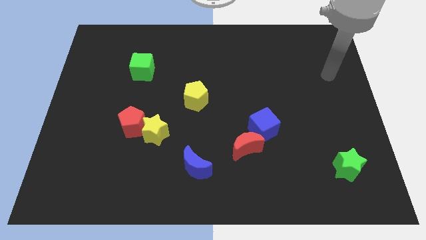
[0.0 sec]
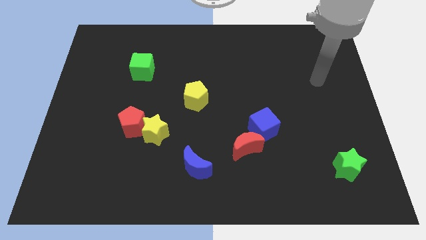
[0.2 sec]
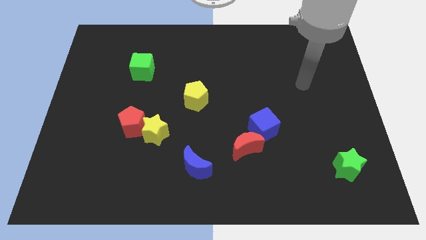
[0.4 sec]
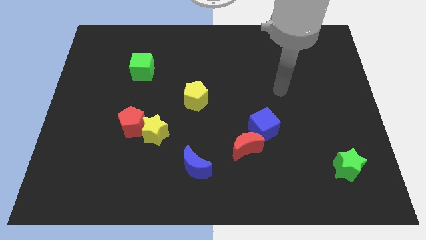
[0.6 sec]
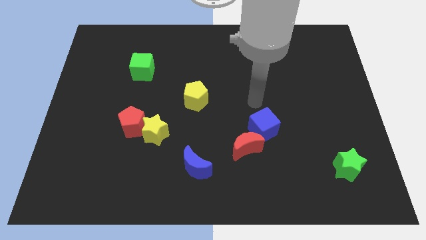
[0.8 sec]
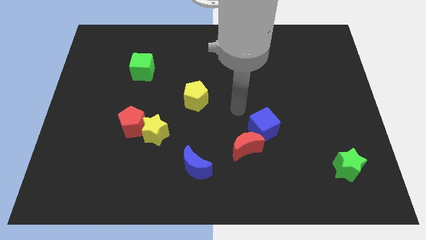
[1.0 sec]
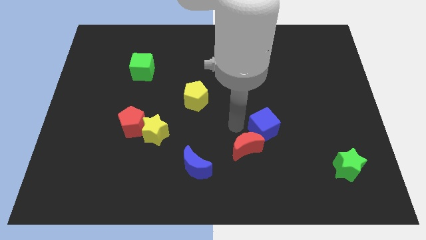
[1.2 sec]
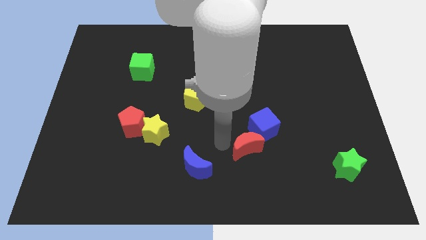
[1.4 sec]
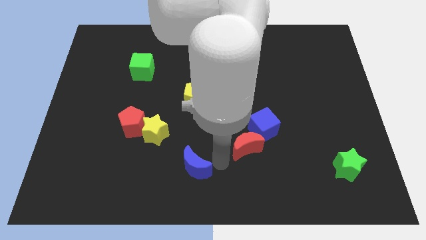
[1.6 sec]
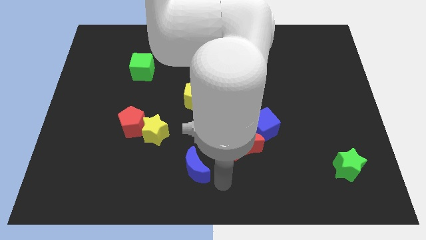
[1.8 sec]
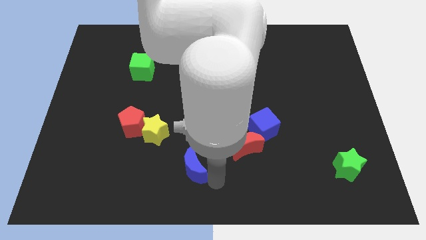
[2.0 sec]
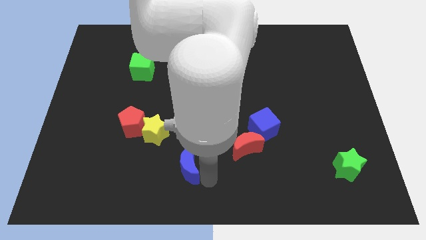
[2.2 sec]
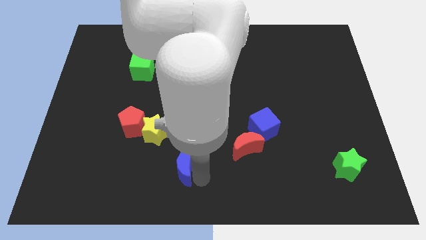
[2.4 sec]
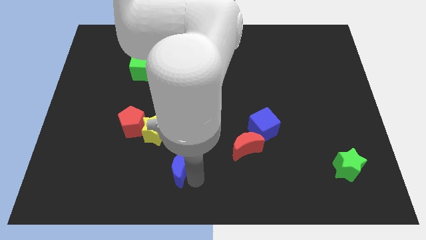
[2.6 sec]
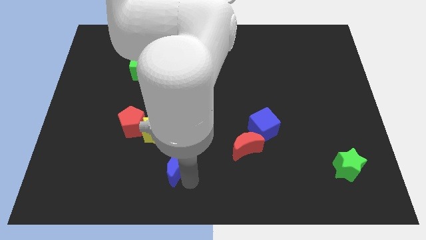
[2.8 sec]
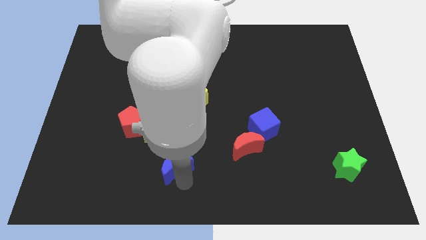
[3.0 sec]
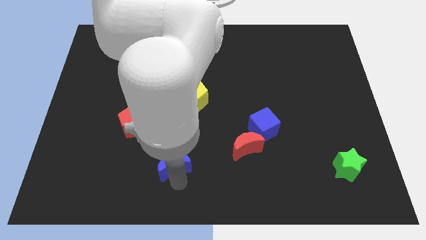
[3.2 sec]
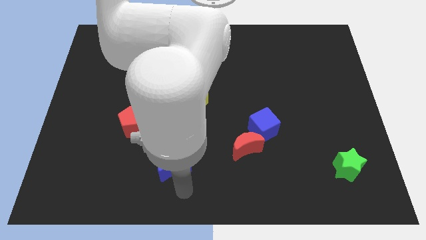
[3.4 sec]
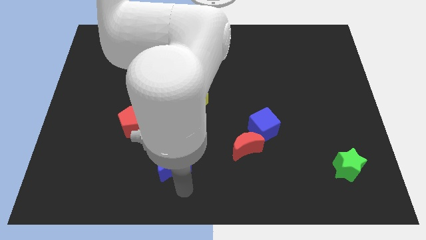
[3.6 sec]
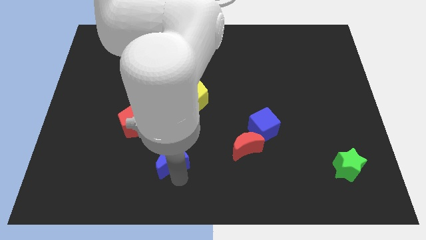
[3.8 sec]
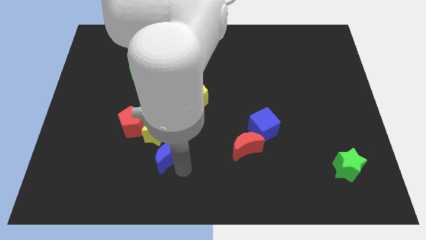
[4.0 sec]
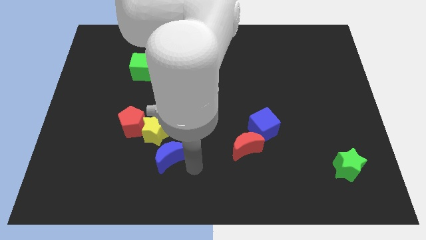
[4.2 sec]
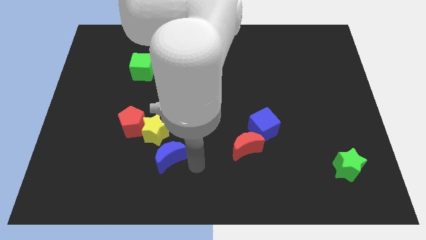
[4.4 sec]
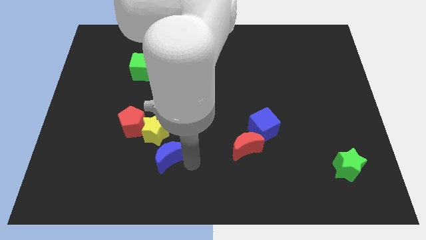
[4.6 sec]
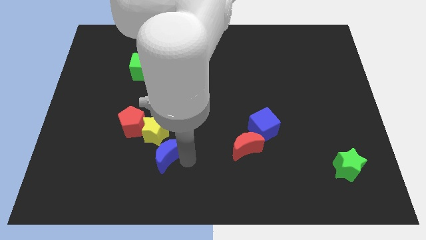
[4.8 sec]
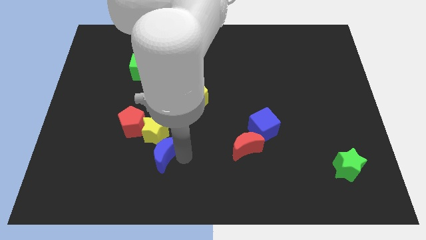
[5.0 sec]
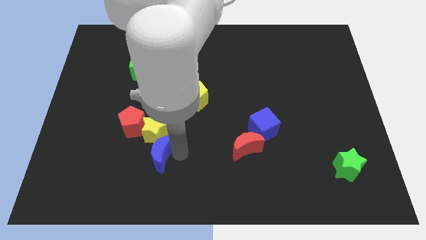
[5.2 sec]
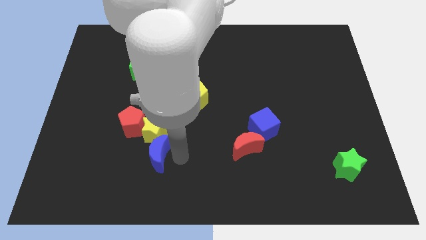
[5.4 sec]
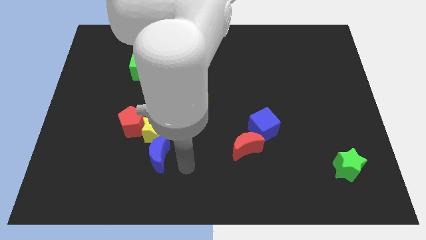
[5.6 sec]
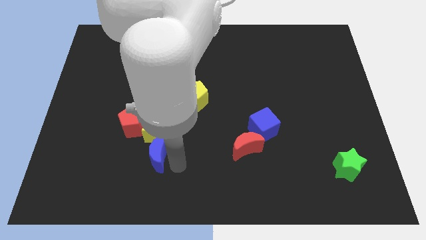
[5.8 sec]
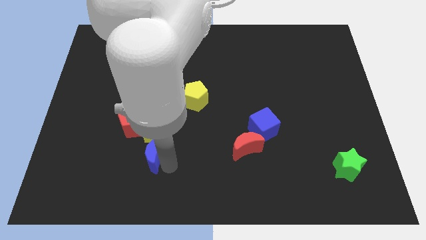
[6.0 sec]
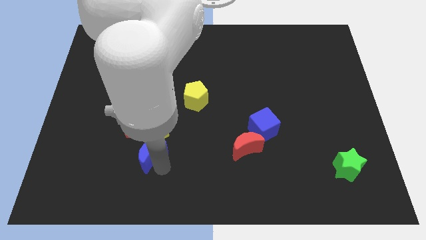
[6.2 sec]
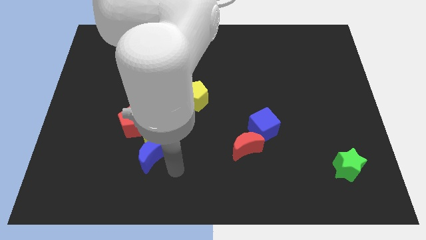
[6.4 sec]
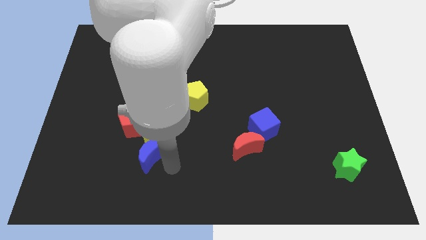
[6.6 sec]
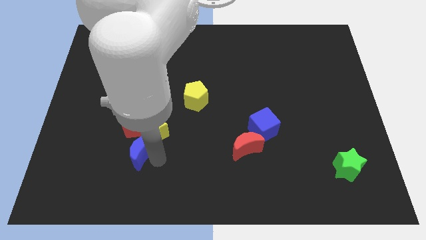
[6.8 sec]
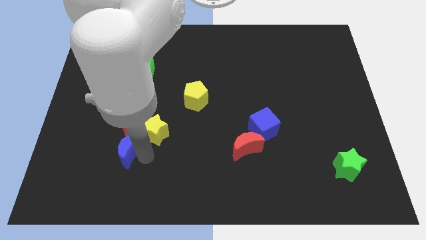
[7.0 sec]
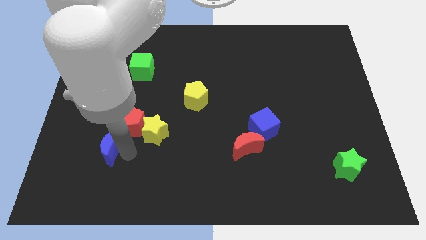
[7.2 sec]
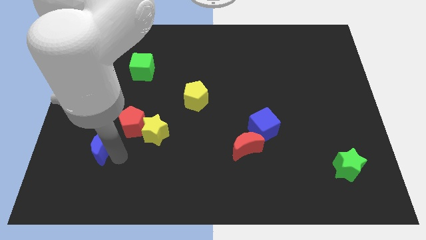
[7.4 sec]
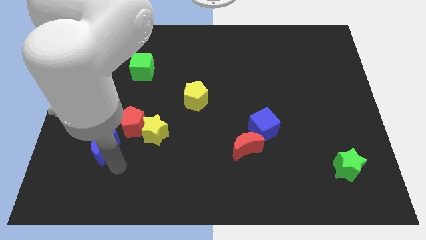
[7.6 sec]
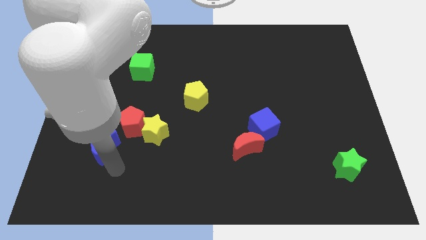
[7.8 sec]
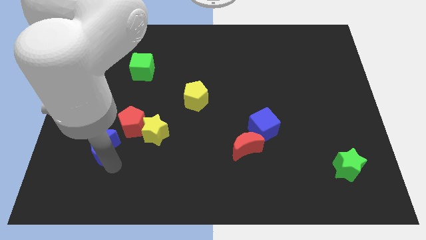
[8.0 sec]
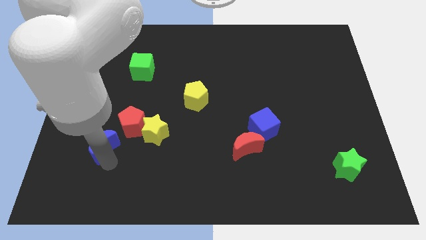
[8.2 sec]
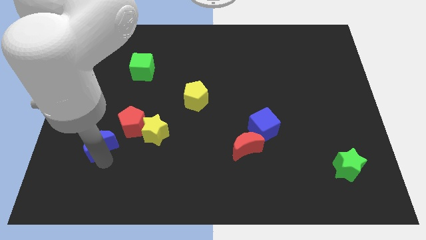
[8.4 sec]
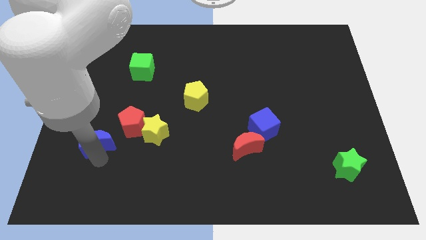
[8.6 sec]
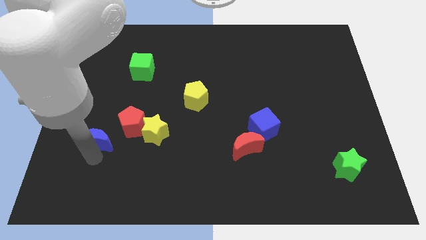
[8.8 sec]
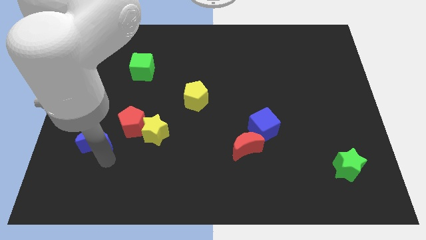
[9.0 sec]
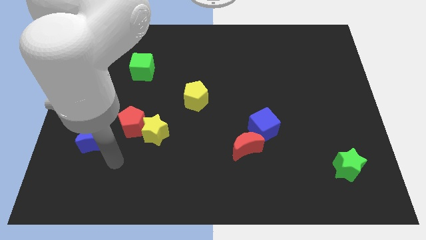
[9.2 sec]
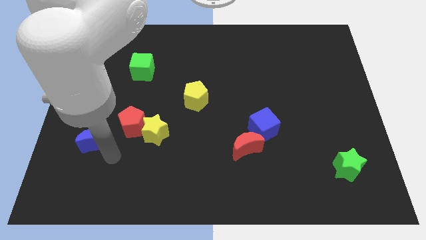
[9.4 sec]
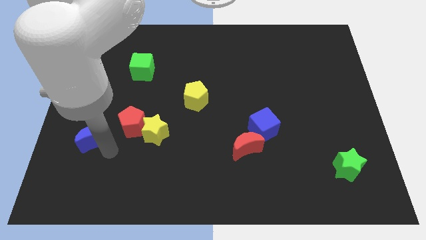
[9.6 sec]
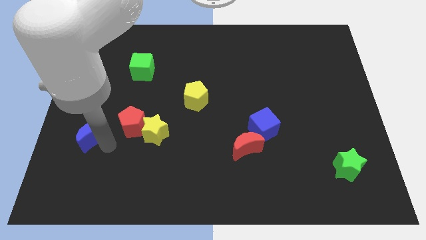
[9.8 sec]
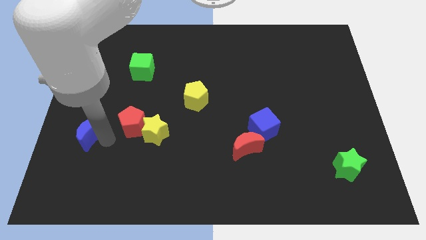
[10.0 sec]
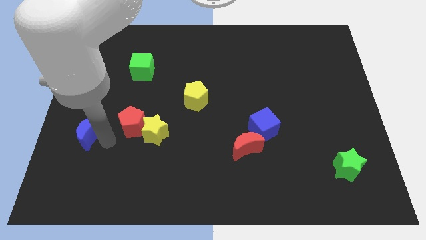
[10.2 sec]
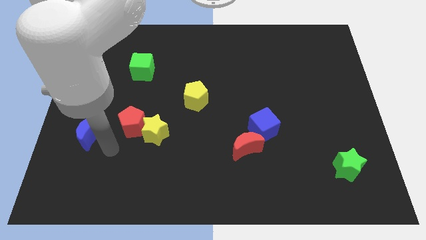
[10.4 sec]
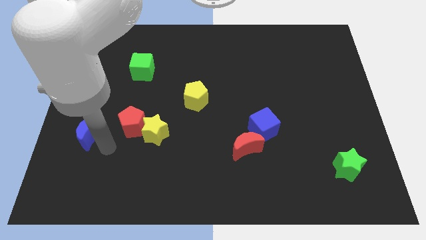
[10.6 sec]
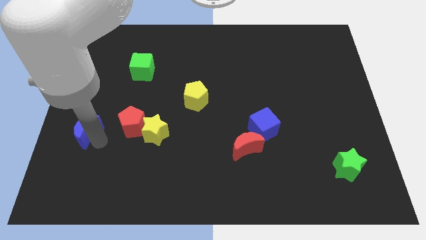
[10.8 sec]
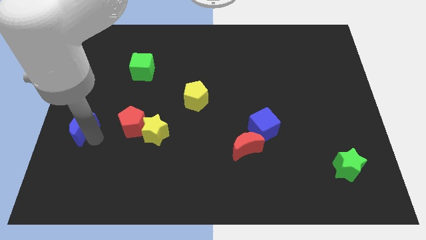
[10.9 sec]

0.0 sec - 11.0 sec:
put the blue moon to the left side

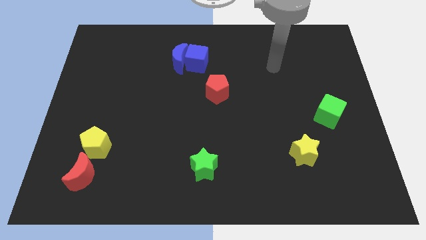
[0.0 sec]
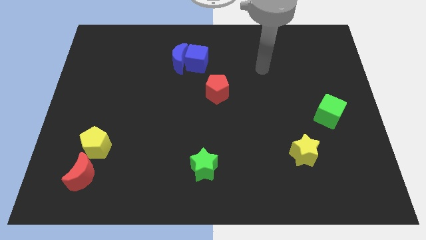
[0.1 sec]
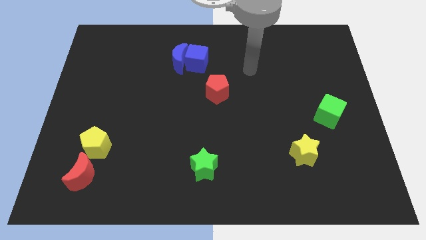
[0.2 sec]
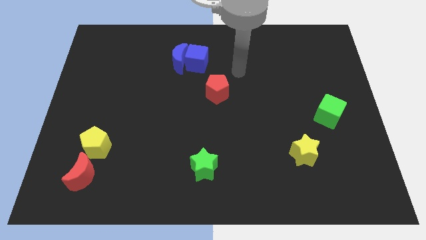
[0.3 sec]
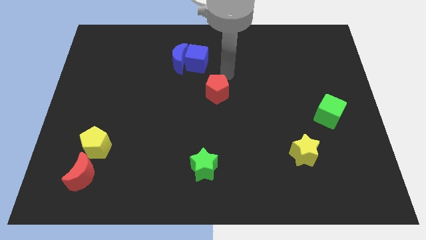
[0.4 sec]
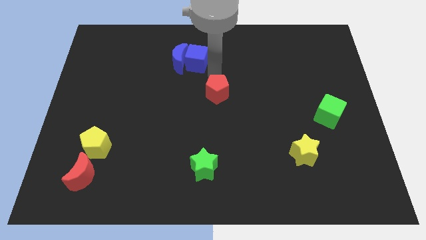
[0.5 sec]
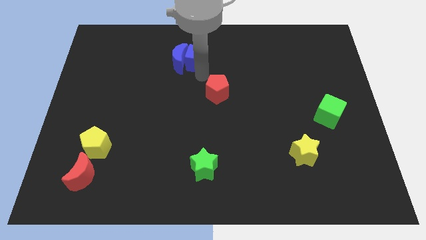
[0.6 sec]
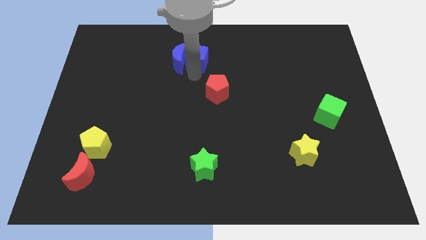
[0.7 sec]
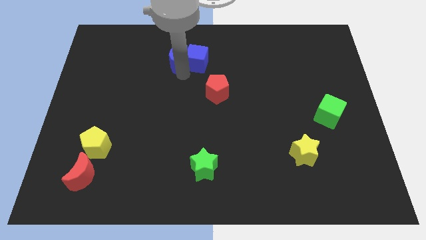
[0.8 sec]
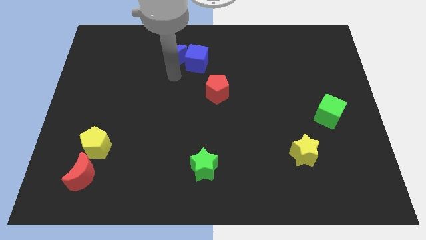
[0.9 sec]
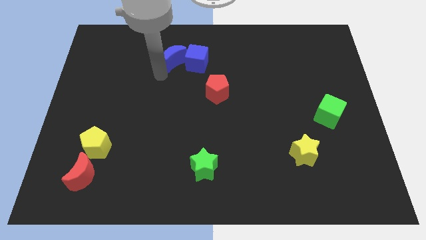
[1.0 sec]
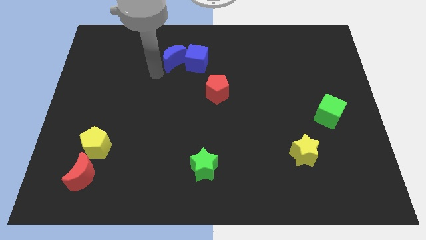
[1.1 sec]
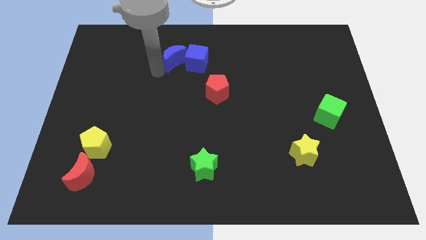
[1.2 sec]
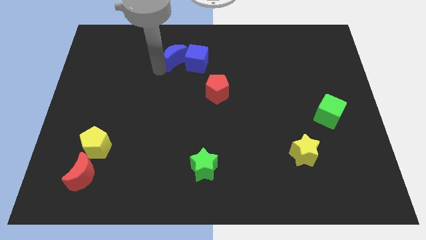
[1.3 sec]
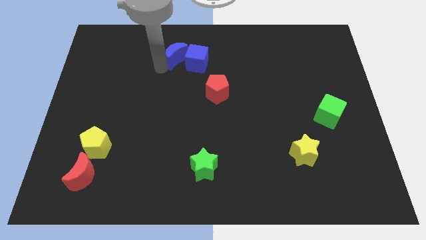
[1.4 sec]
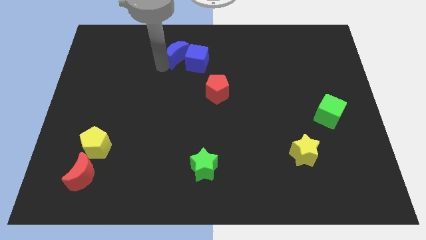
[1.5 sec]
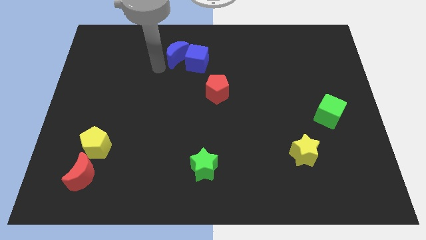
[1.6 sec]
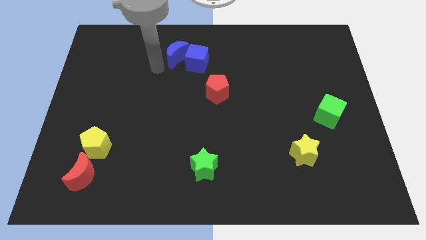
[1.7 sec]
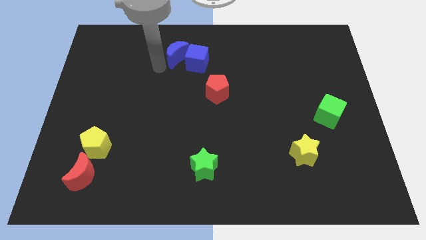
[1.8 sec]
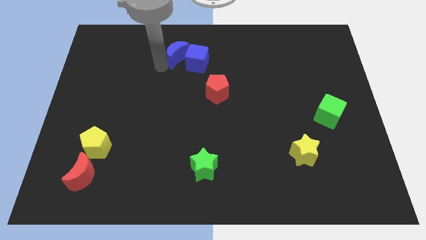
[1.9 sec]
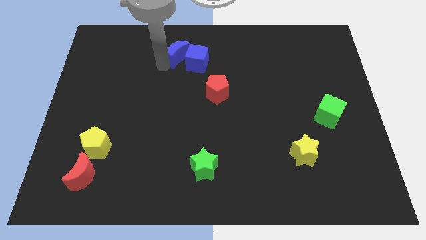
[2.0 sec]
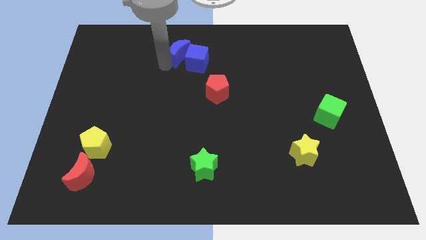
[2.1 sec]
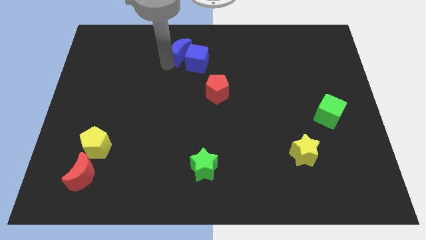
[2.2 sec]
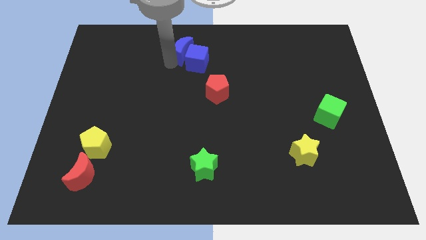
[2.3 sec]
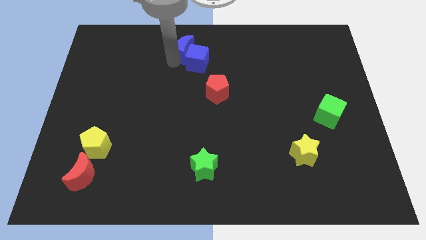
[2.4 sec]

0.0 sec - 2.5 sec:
move the blue moon to the top
